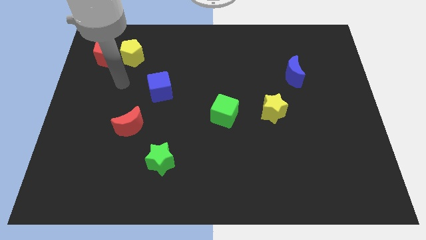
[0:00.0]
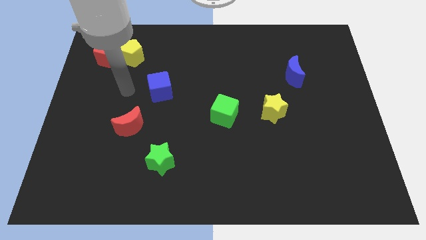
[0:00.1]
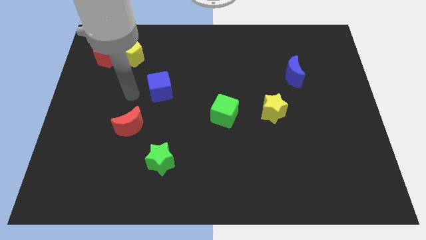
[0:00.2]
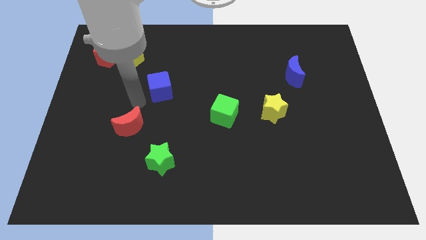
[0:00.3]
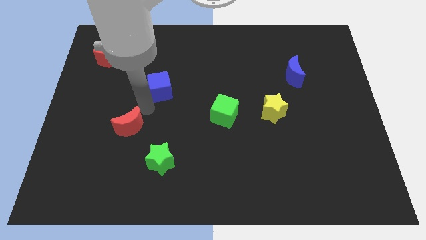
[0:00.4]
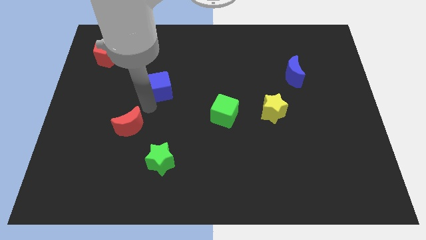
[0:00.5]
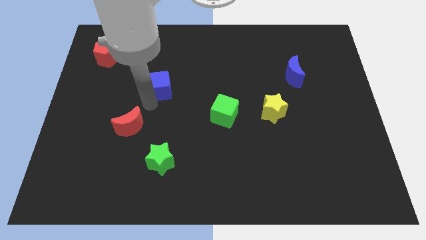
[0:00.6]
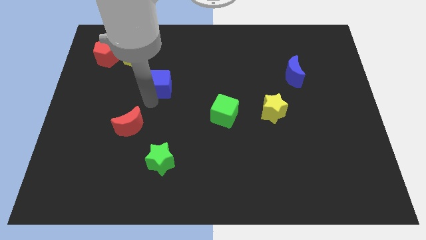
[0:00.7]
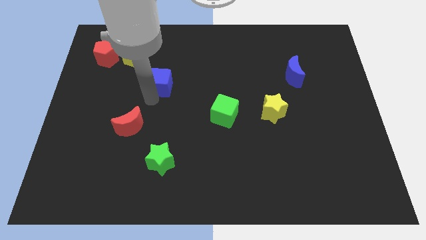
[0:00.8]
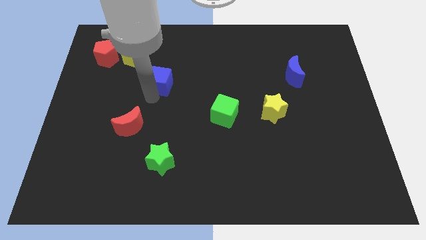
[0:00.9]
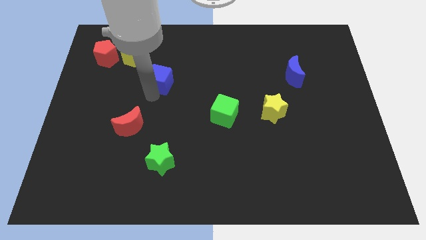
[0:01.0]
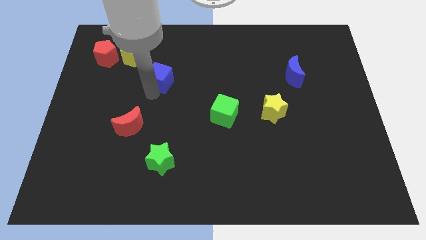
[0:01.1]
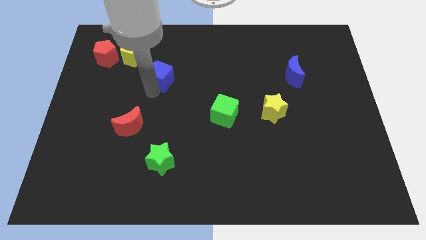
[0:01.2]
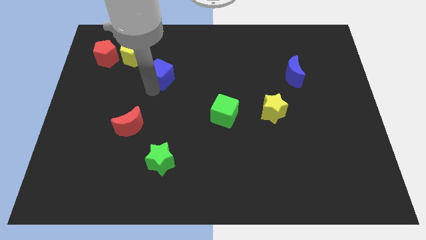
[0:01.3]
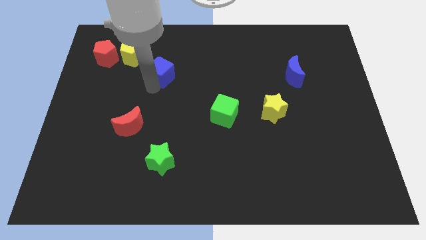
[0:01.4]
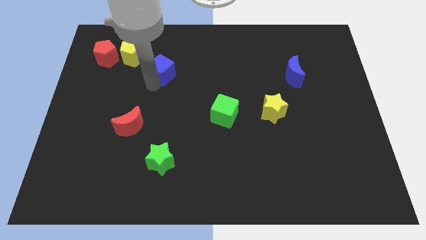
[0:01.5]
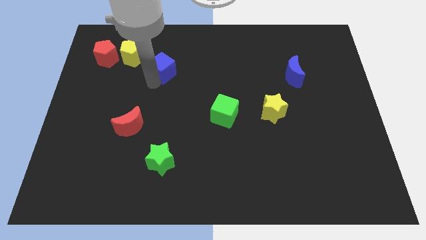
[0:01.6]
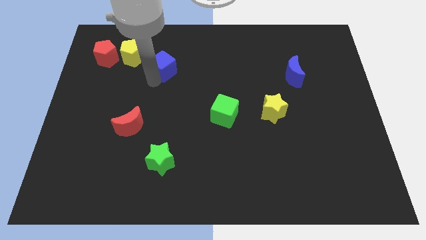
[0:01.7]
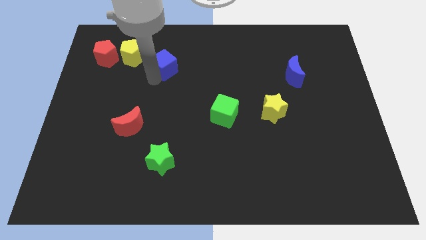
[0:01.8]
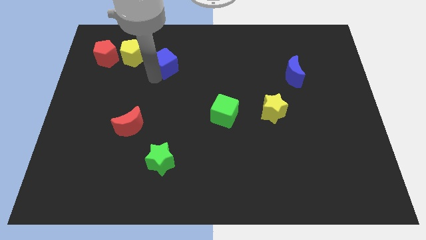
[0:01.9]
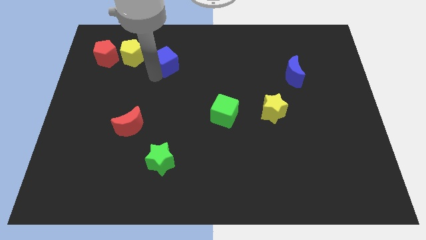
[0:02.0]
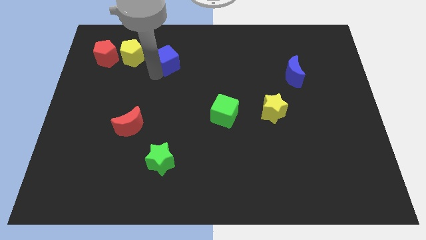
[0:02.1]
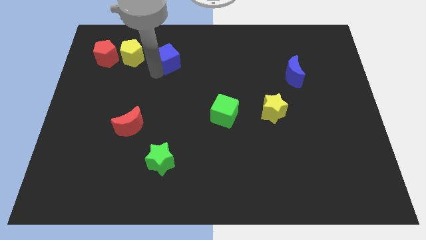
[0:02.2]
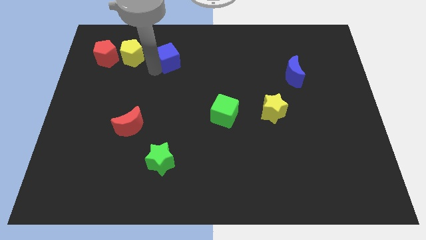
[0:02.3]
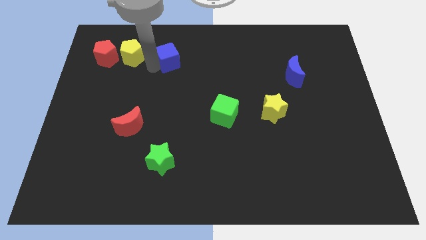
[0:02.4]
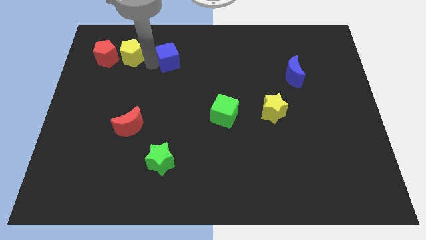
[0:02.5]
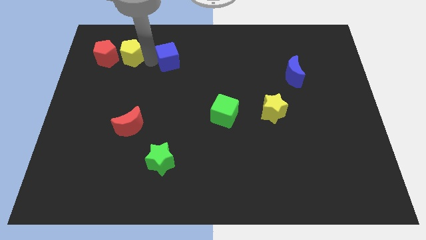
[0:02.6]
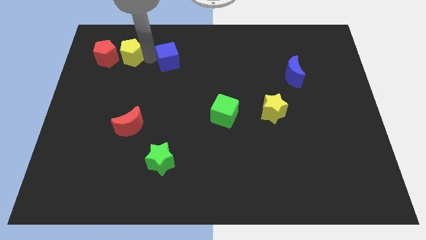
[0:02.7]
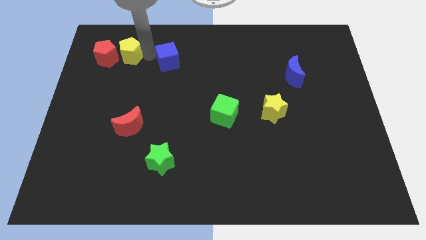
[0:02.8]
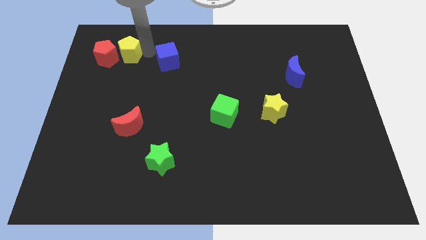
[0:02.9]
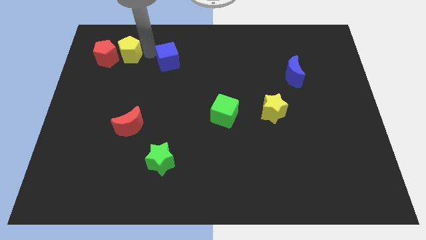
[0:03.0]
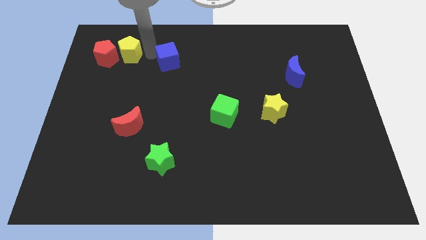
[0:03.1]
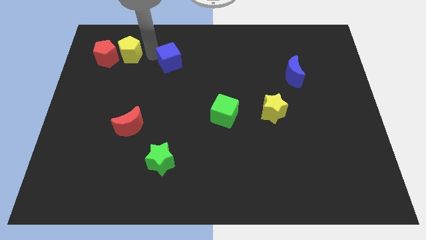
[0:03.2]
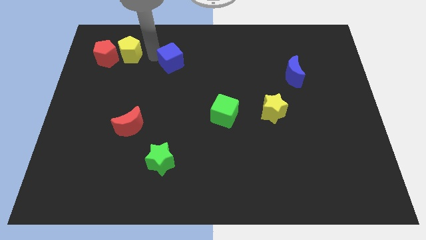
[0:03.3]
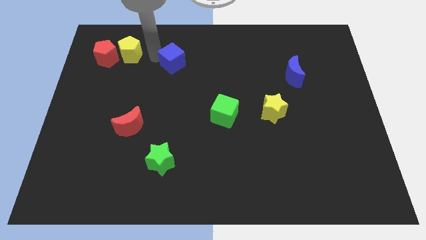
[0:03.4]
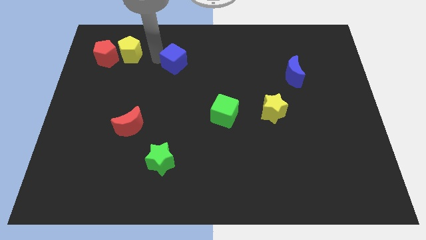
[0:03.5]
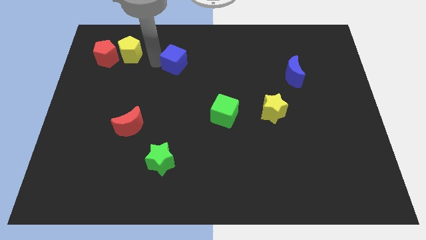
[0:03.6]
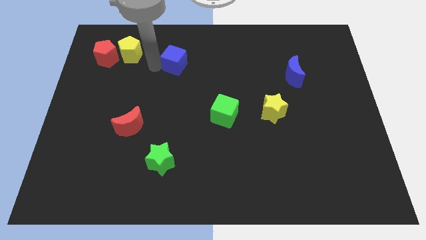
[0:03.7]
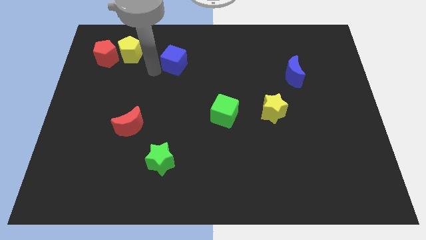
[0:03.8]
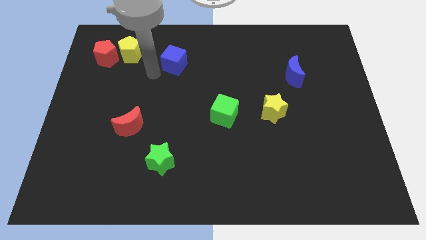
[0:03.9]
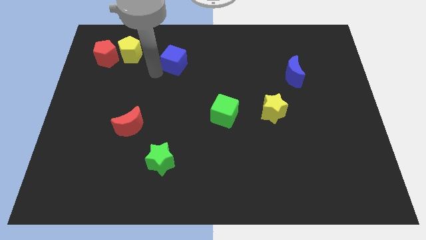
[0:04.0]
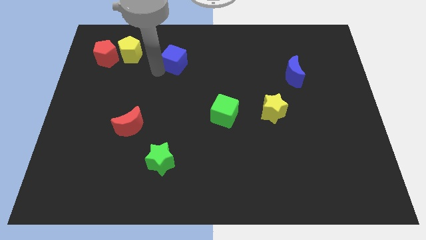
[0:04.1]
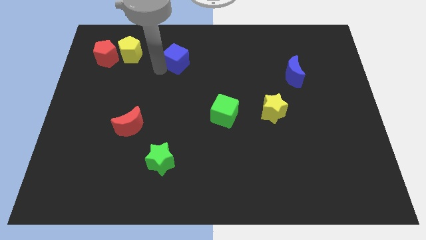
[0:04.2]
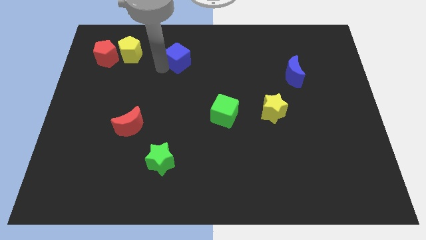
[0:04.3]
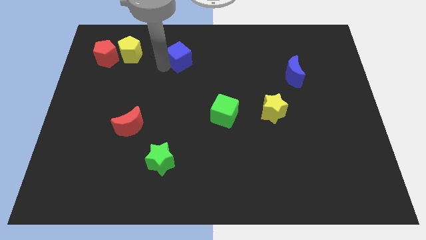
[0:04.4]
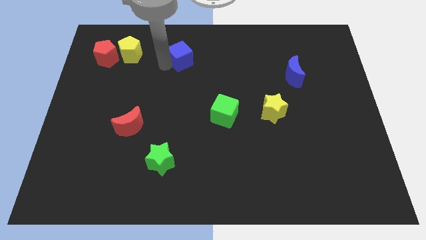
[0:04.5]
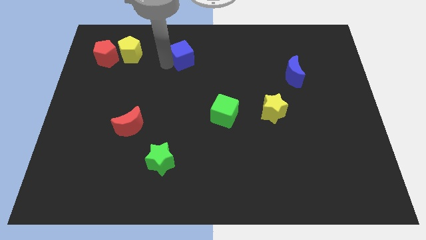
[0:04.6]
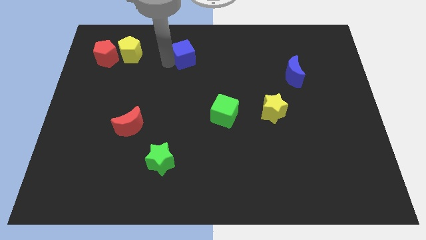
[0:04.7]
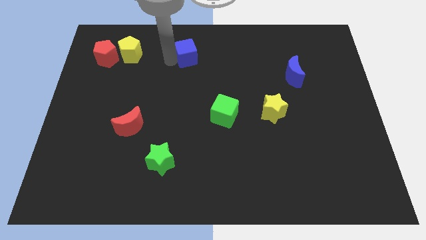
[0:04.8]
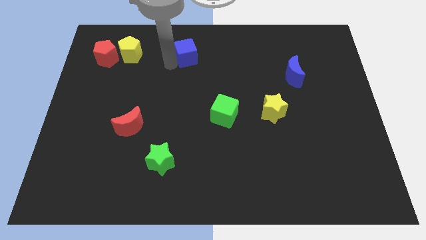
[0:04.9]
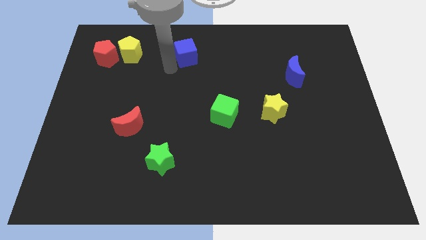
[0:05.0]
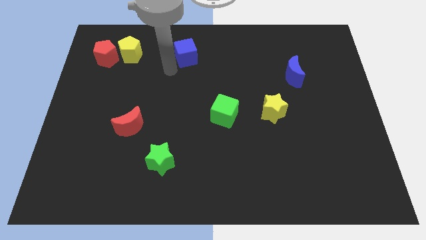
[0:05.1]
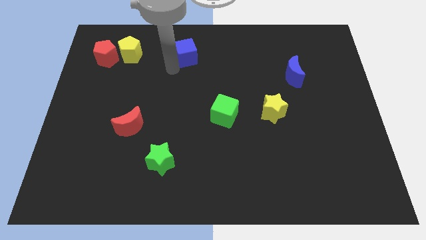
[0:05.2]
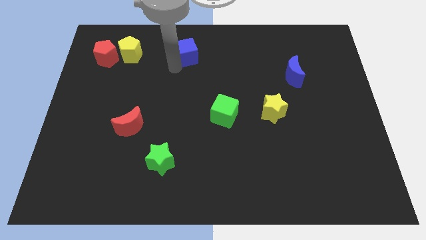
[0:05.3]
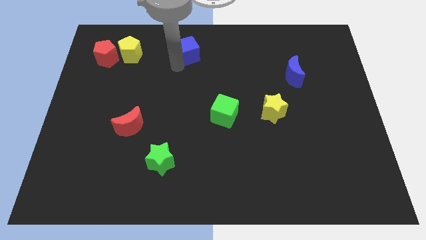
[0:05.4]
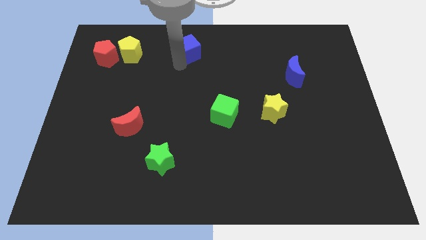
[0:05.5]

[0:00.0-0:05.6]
move the blue cube to the top side
